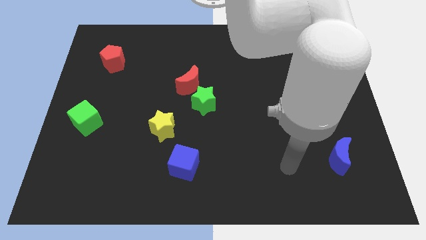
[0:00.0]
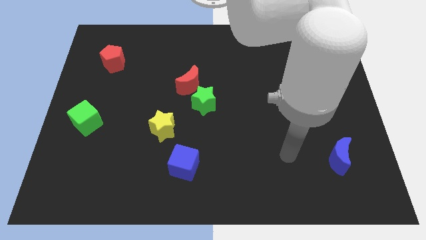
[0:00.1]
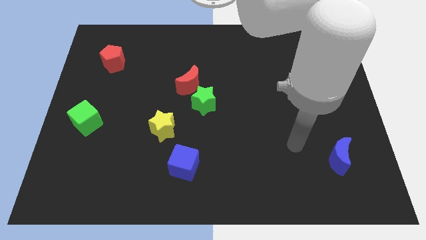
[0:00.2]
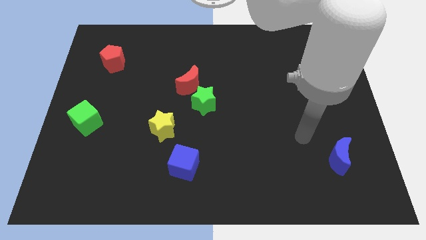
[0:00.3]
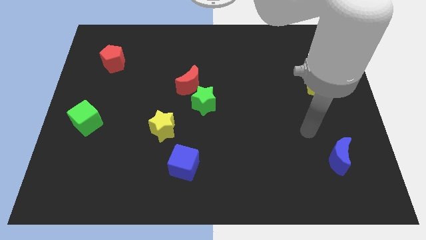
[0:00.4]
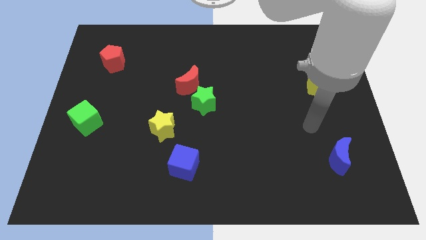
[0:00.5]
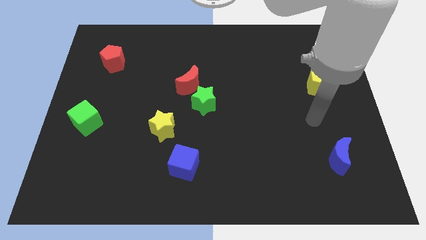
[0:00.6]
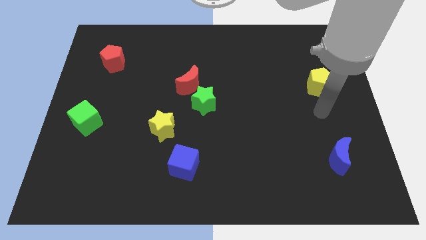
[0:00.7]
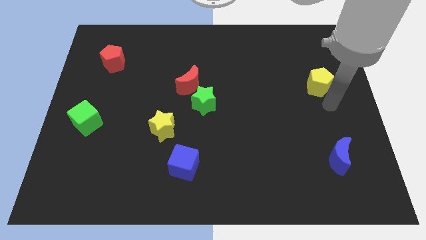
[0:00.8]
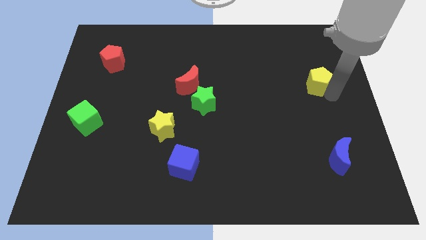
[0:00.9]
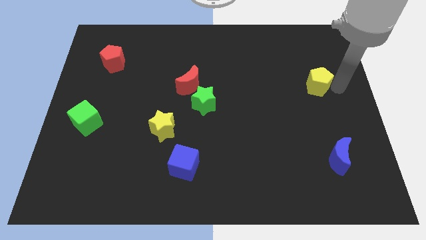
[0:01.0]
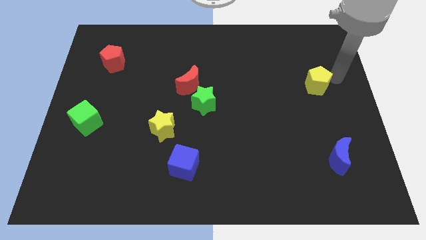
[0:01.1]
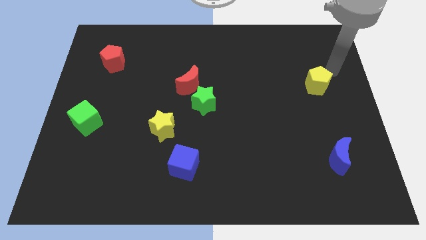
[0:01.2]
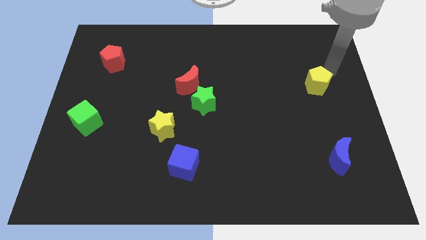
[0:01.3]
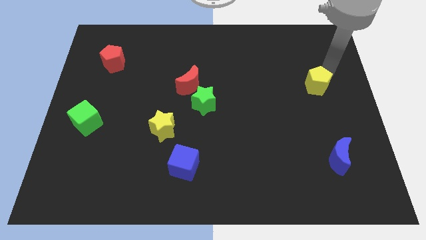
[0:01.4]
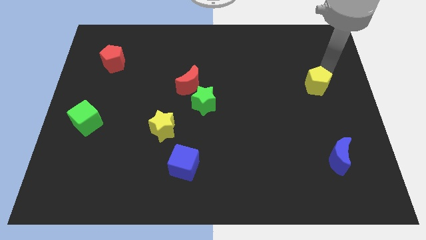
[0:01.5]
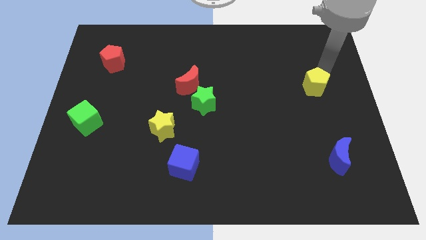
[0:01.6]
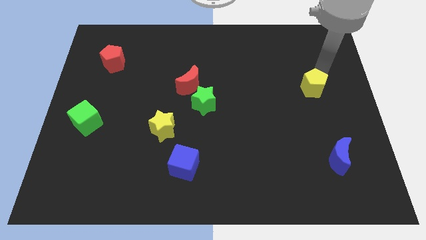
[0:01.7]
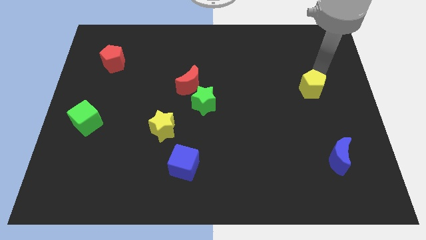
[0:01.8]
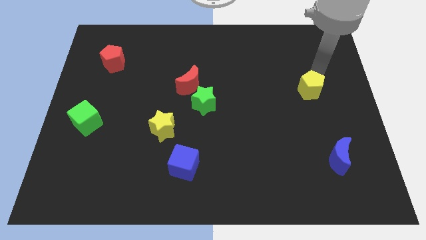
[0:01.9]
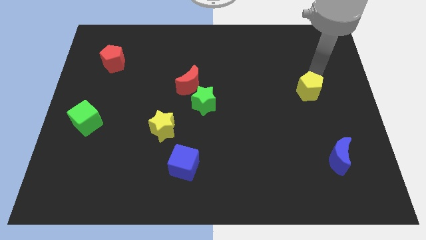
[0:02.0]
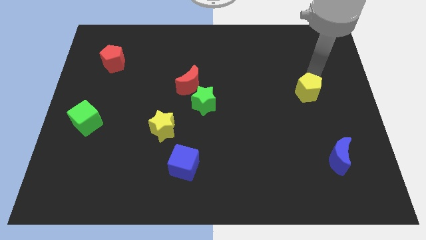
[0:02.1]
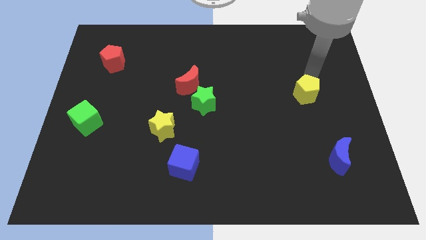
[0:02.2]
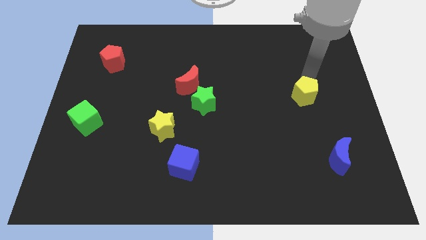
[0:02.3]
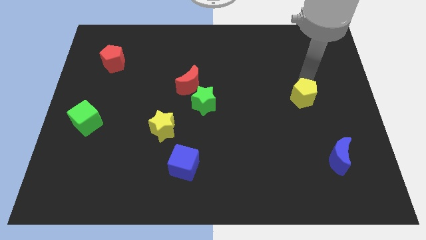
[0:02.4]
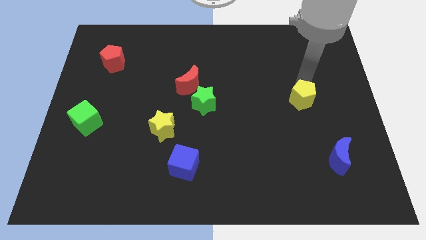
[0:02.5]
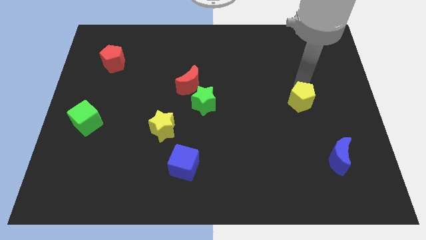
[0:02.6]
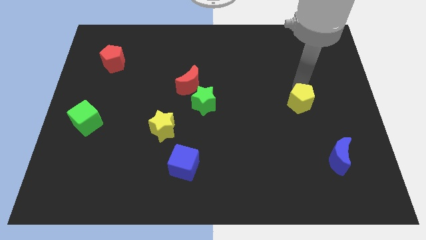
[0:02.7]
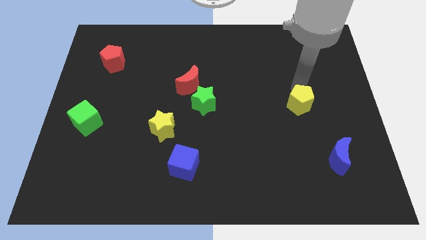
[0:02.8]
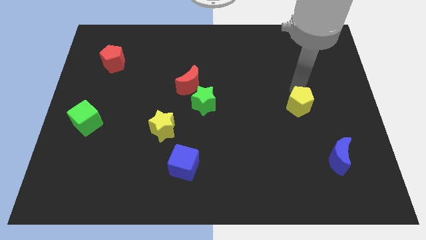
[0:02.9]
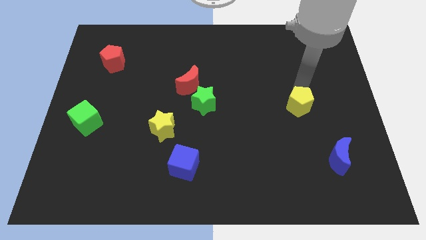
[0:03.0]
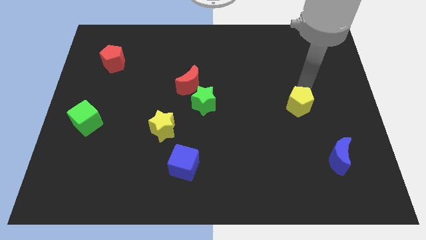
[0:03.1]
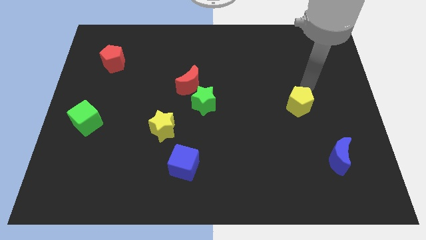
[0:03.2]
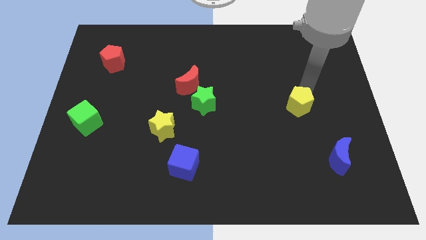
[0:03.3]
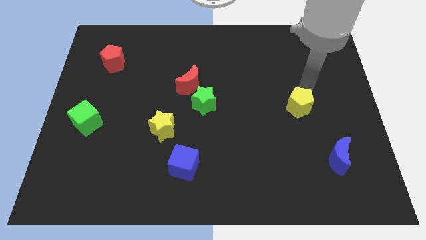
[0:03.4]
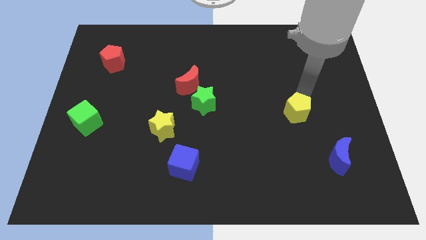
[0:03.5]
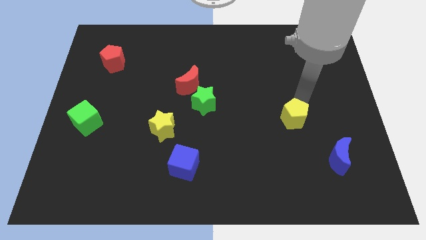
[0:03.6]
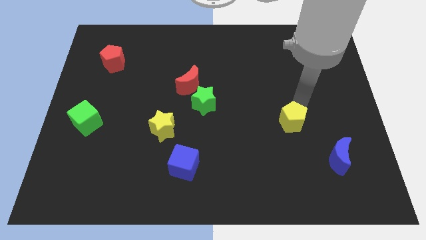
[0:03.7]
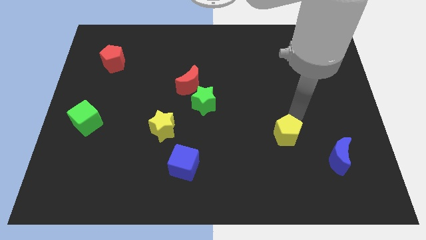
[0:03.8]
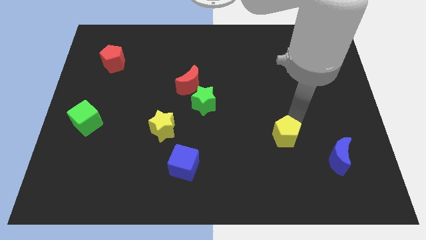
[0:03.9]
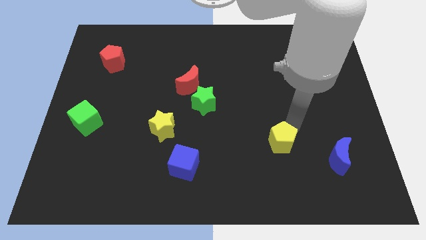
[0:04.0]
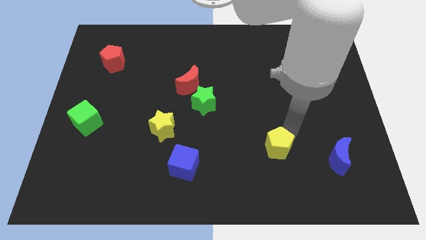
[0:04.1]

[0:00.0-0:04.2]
move the yellow pentagon downwards and to the left diagonally

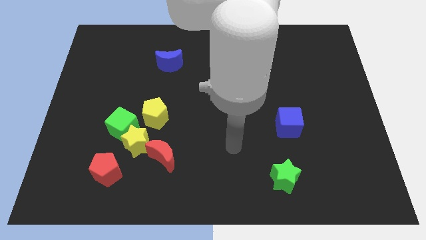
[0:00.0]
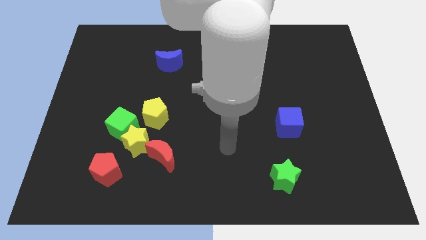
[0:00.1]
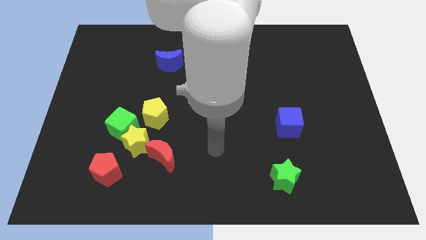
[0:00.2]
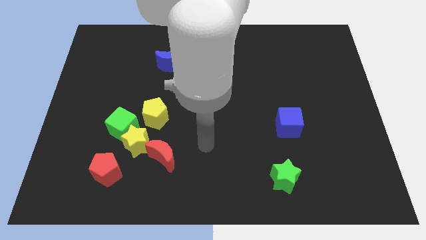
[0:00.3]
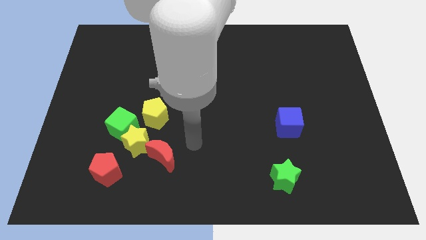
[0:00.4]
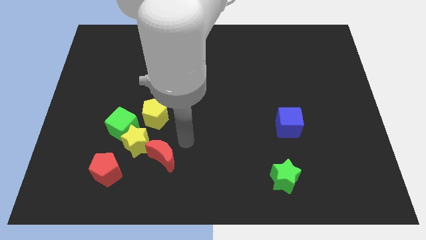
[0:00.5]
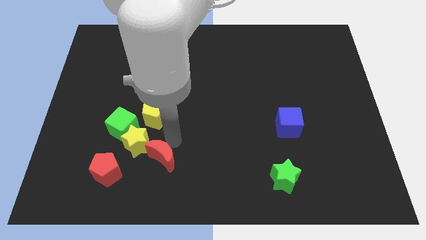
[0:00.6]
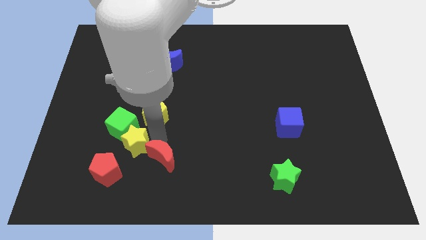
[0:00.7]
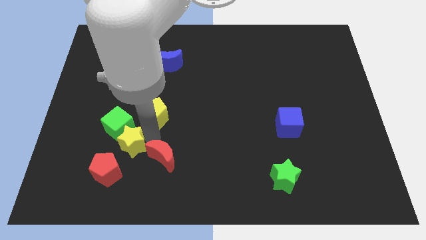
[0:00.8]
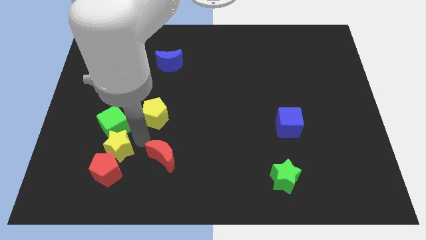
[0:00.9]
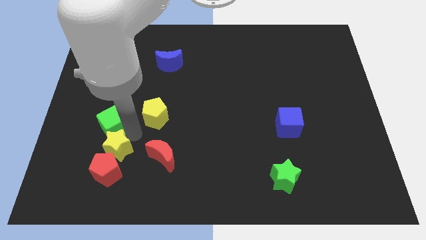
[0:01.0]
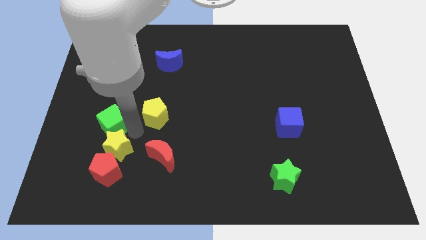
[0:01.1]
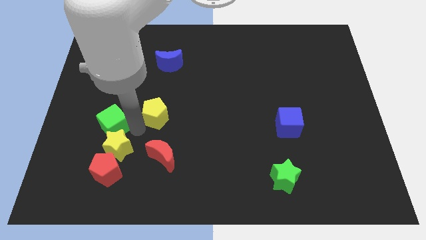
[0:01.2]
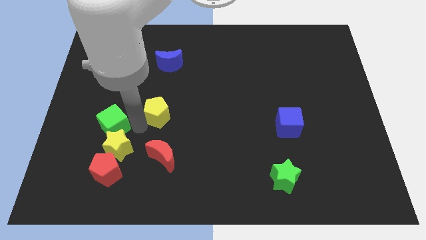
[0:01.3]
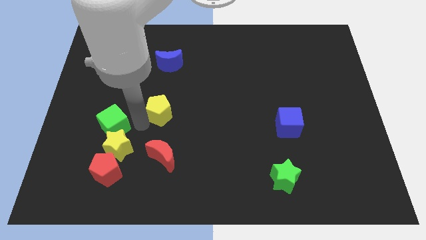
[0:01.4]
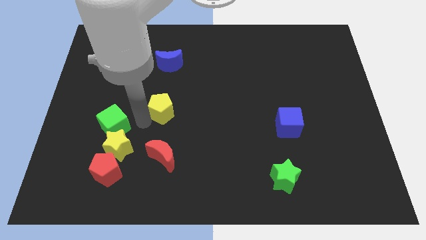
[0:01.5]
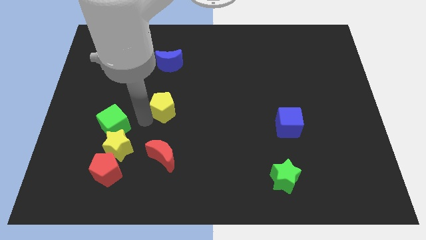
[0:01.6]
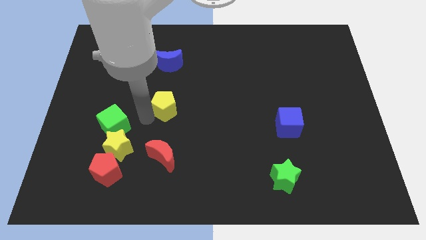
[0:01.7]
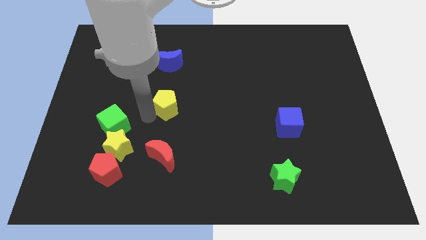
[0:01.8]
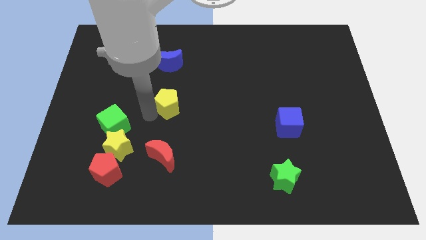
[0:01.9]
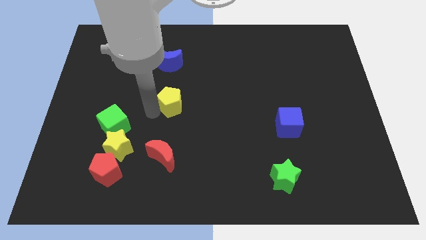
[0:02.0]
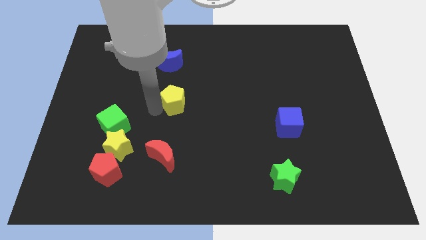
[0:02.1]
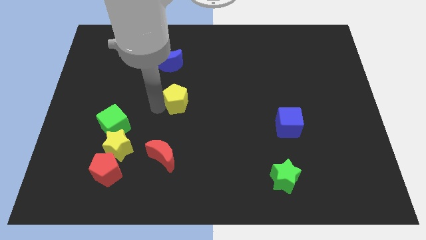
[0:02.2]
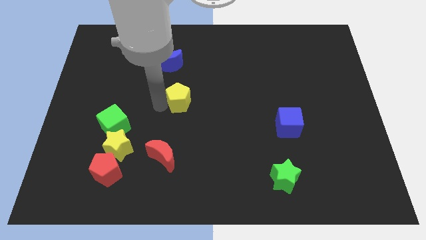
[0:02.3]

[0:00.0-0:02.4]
push the yellow pentagon somewhat up and to the right diagonally

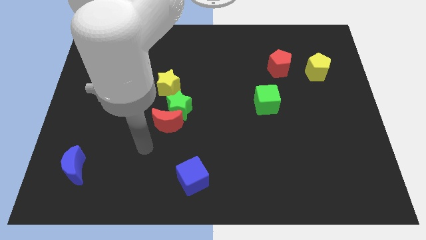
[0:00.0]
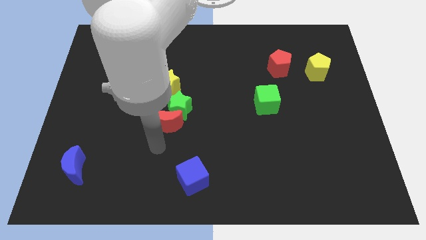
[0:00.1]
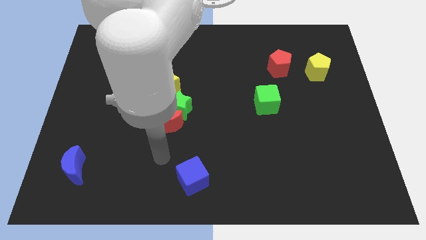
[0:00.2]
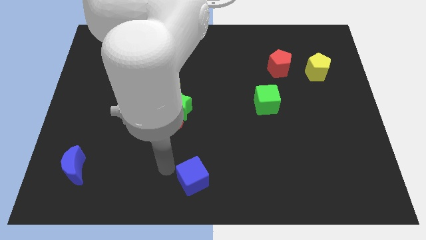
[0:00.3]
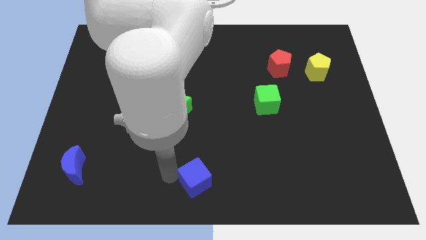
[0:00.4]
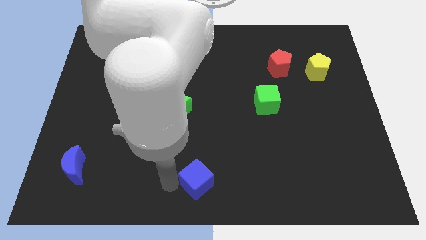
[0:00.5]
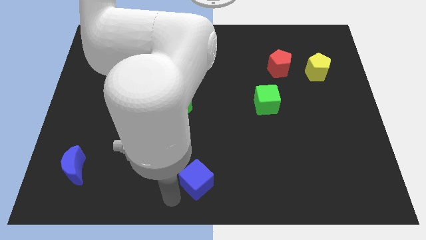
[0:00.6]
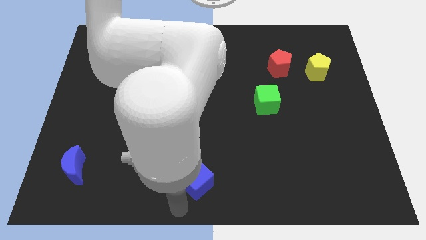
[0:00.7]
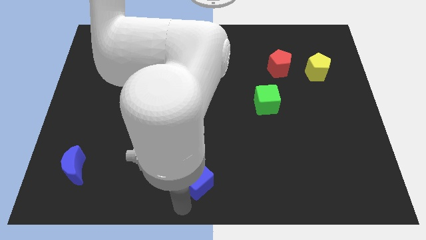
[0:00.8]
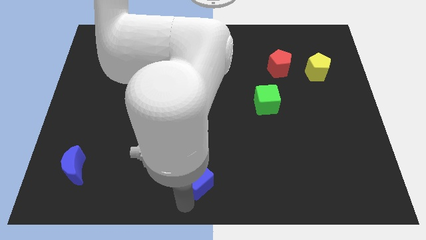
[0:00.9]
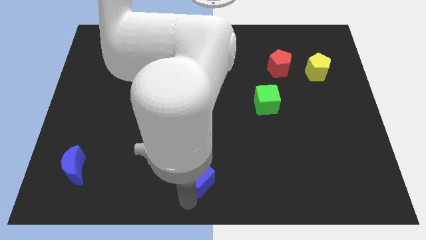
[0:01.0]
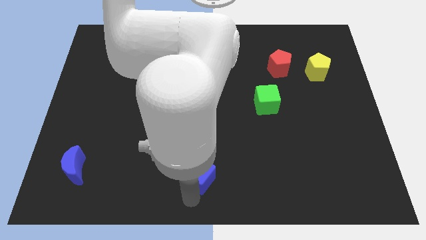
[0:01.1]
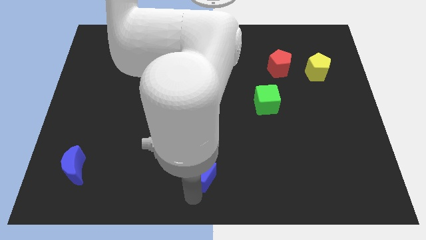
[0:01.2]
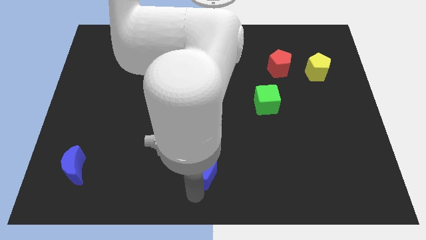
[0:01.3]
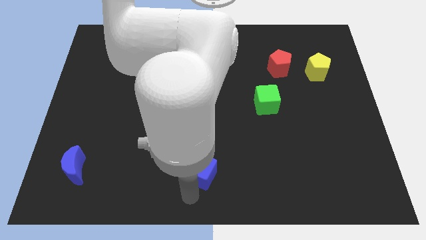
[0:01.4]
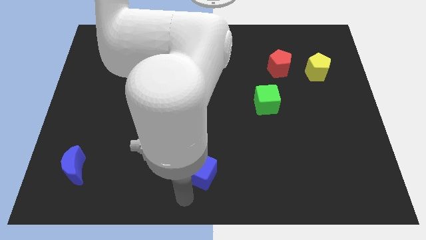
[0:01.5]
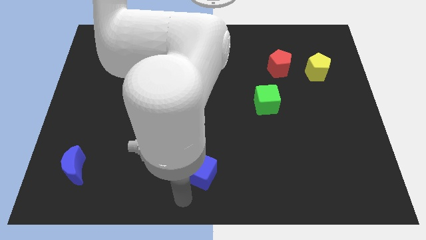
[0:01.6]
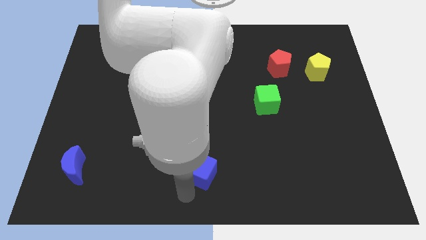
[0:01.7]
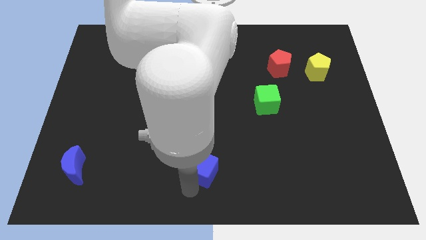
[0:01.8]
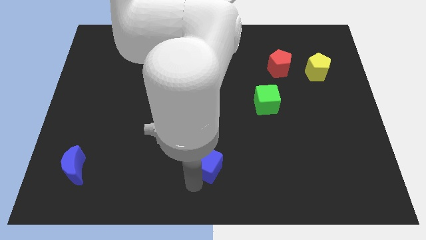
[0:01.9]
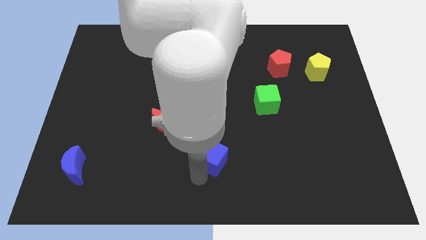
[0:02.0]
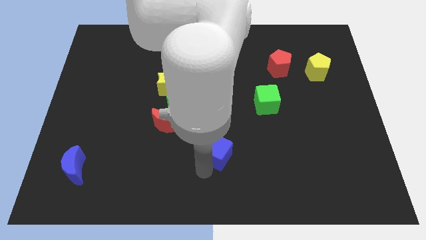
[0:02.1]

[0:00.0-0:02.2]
slide the blue cube a bit diagonally upwards and right
